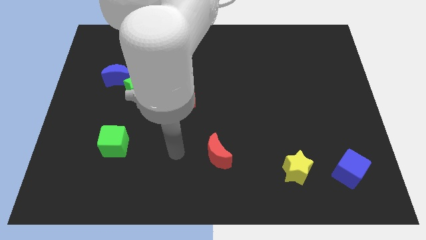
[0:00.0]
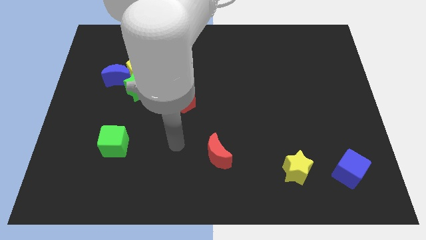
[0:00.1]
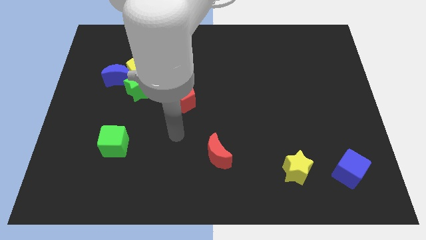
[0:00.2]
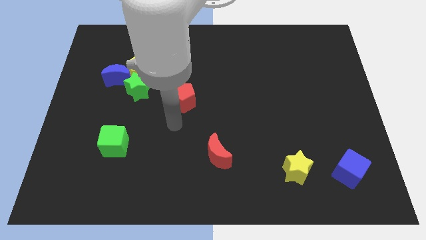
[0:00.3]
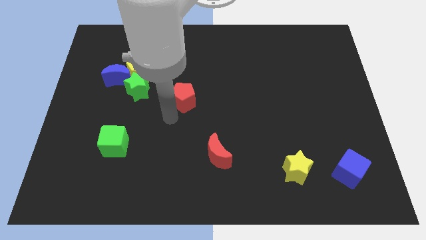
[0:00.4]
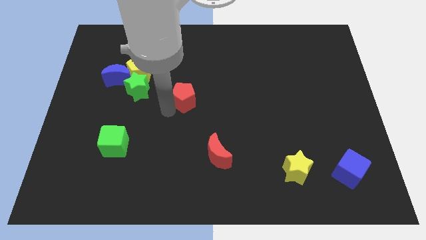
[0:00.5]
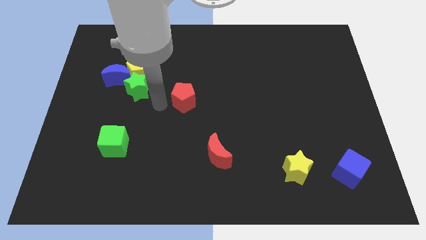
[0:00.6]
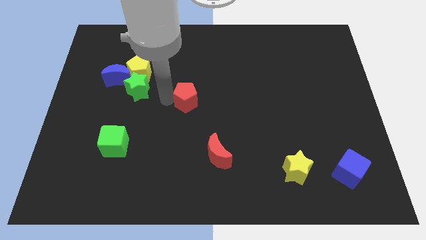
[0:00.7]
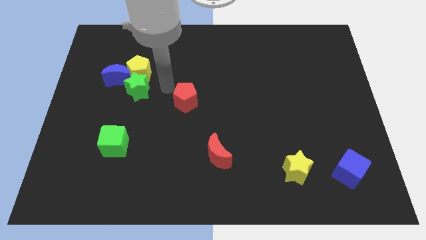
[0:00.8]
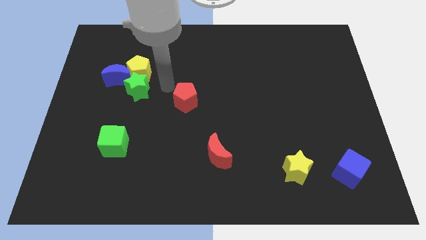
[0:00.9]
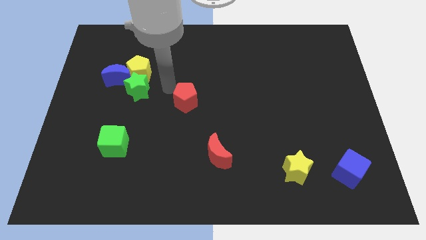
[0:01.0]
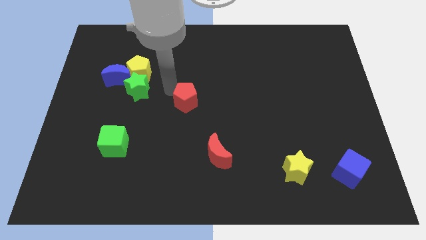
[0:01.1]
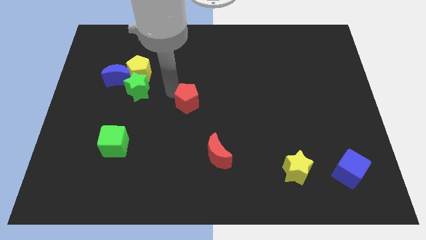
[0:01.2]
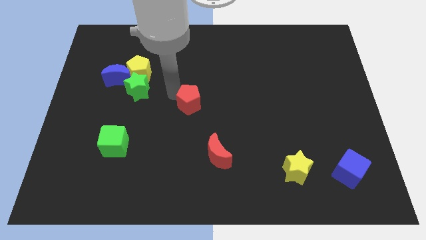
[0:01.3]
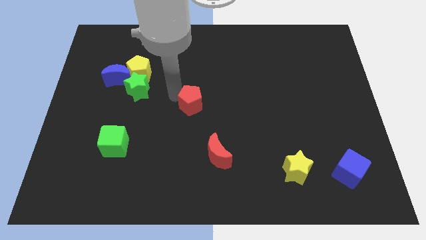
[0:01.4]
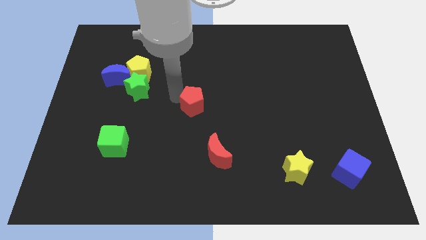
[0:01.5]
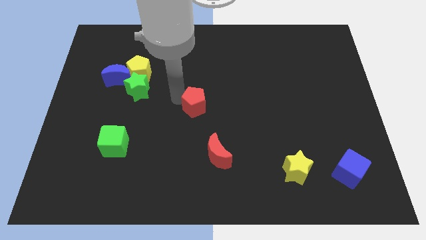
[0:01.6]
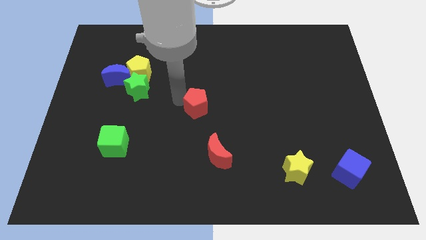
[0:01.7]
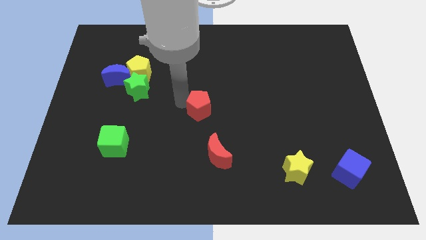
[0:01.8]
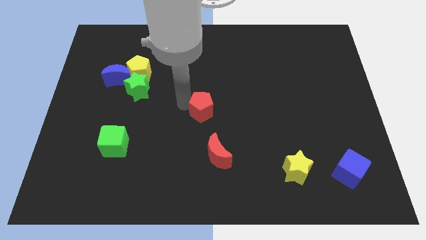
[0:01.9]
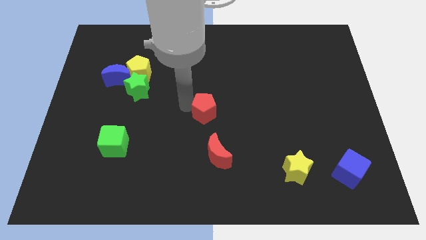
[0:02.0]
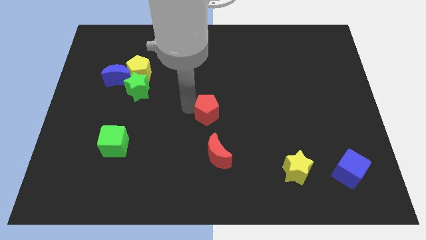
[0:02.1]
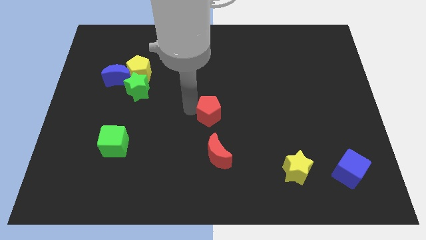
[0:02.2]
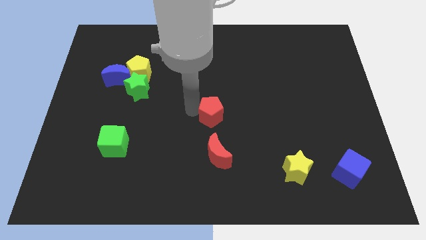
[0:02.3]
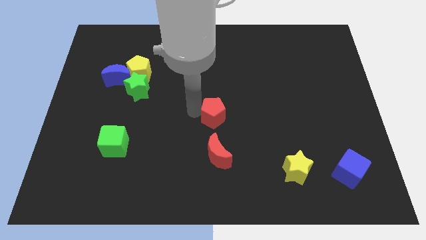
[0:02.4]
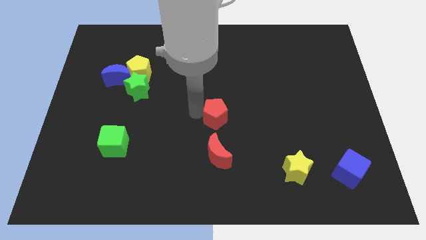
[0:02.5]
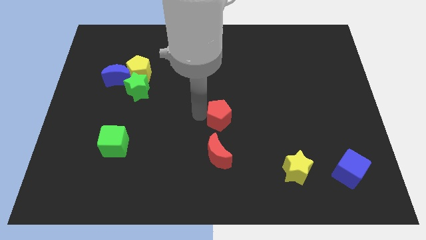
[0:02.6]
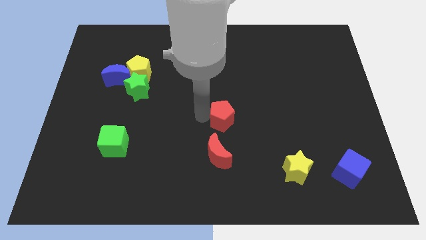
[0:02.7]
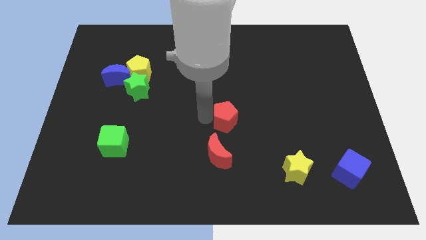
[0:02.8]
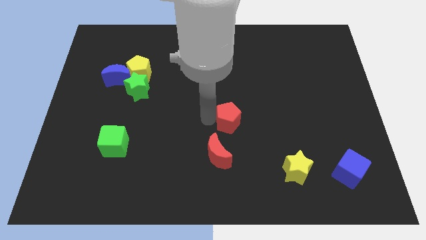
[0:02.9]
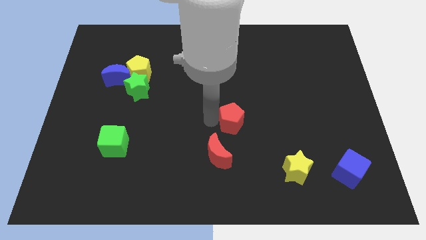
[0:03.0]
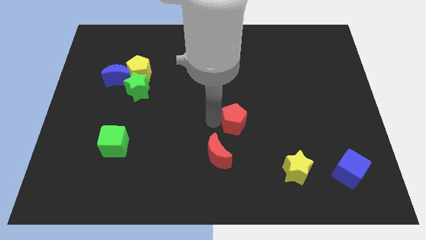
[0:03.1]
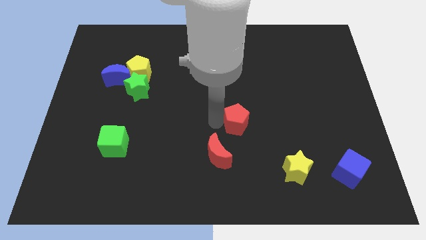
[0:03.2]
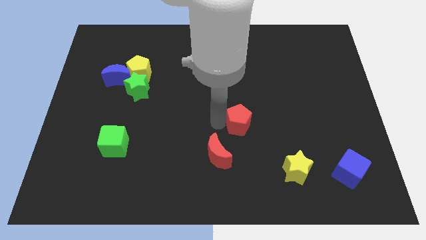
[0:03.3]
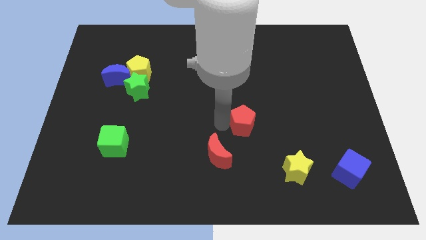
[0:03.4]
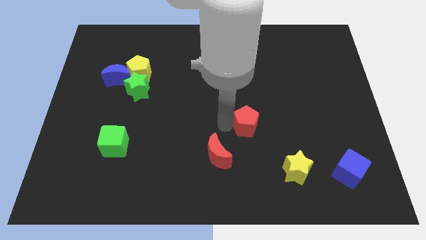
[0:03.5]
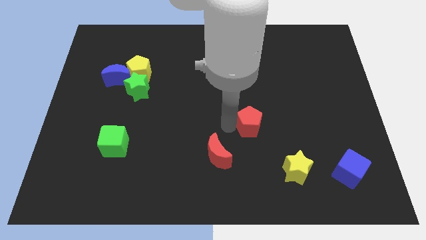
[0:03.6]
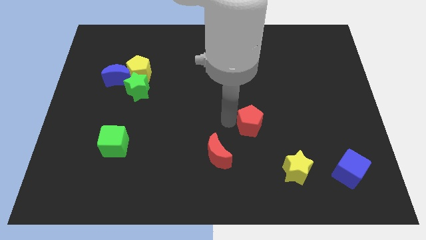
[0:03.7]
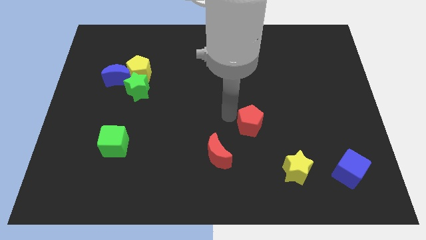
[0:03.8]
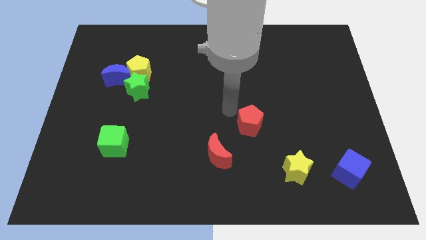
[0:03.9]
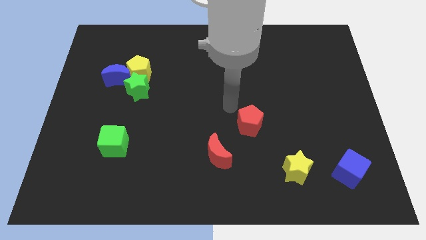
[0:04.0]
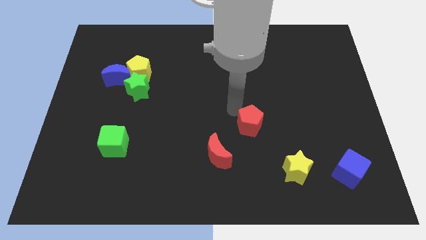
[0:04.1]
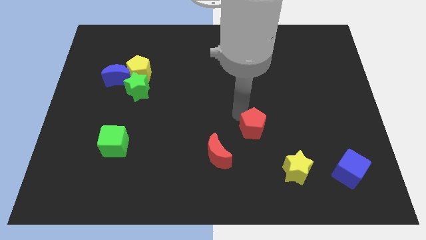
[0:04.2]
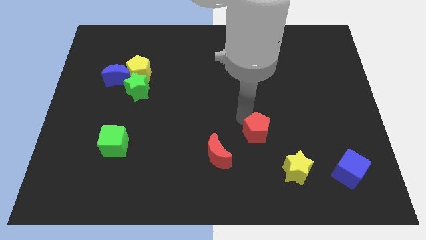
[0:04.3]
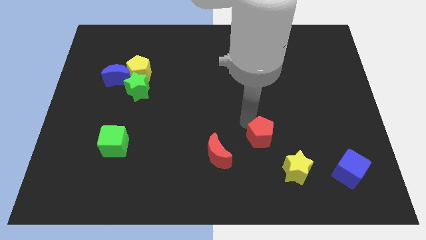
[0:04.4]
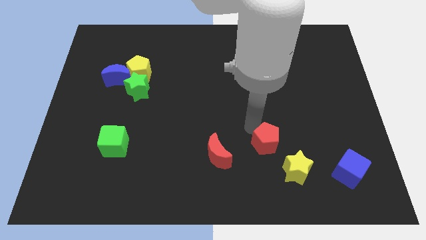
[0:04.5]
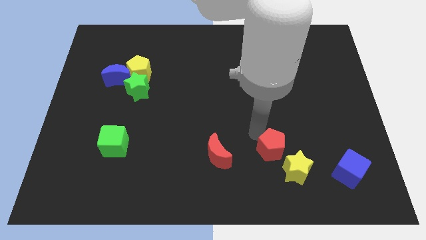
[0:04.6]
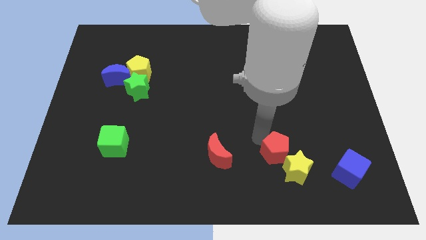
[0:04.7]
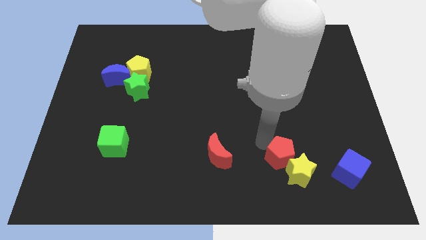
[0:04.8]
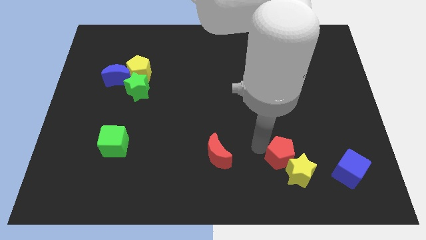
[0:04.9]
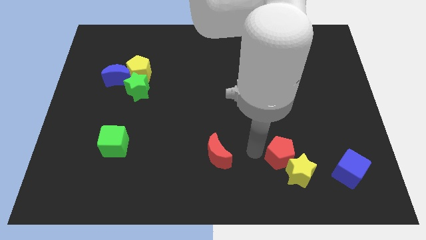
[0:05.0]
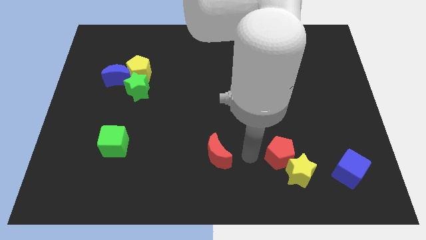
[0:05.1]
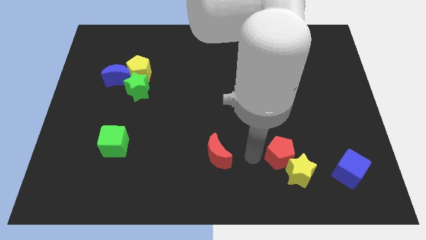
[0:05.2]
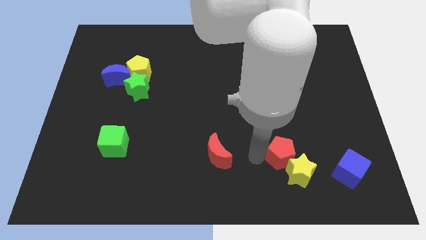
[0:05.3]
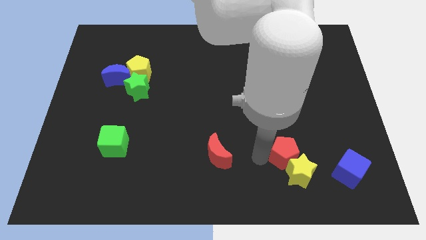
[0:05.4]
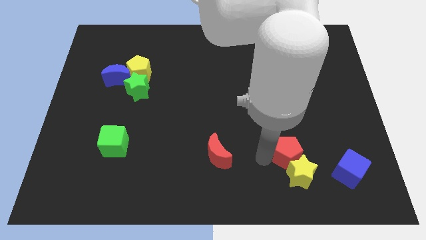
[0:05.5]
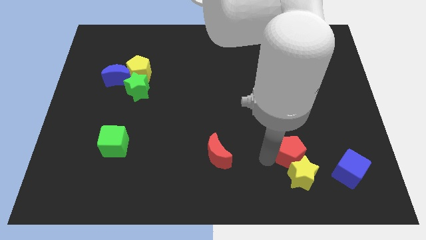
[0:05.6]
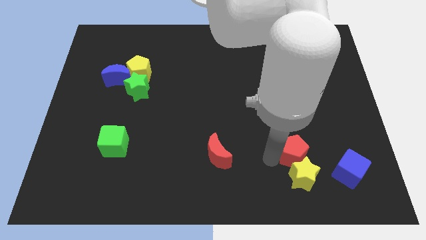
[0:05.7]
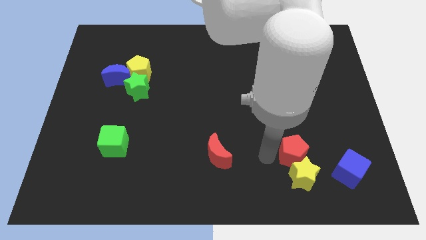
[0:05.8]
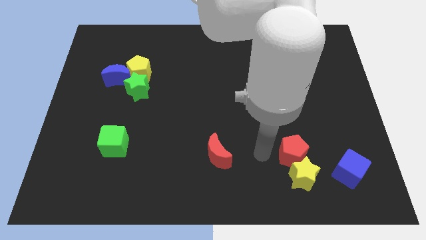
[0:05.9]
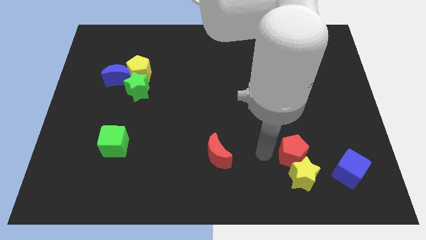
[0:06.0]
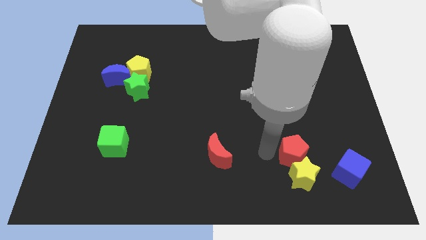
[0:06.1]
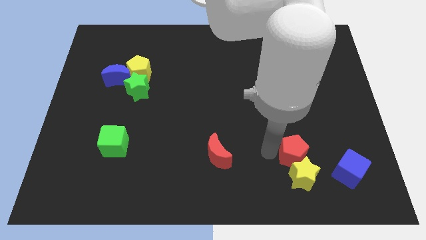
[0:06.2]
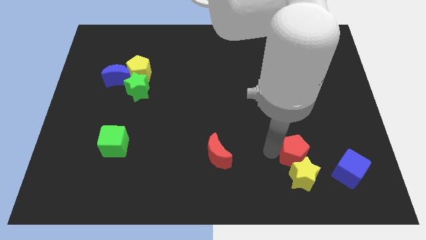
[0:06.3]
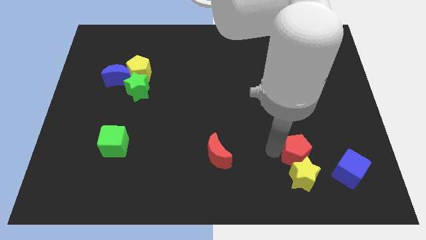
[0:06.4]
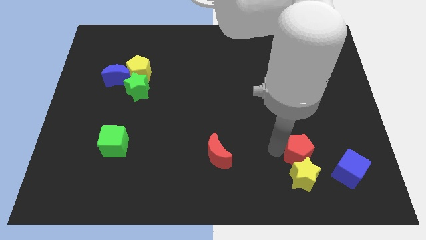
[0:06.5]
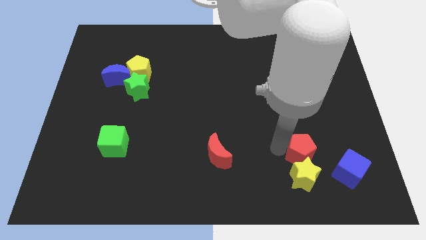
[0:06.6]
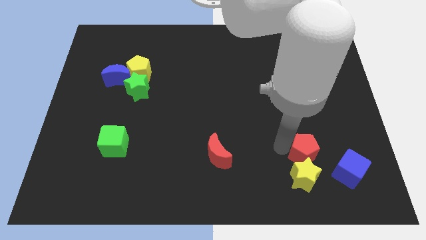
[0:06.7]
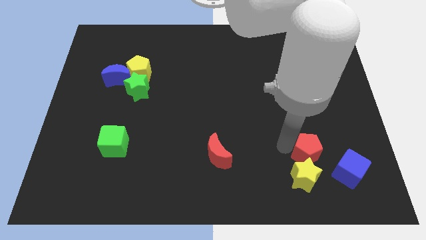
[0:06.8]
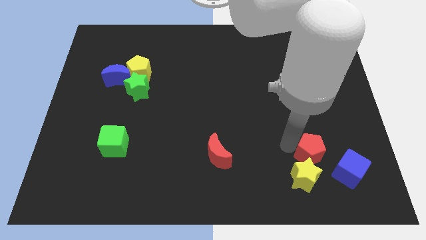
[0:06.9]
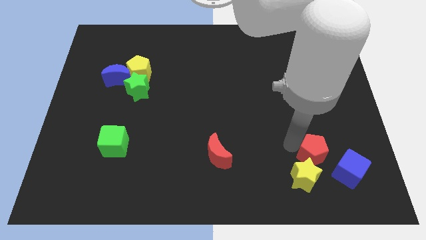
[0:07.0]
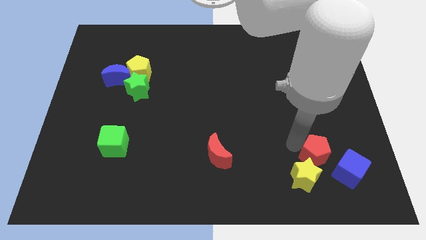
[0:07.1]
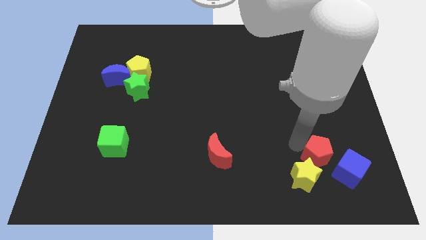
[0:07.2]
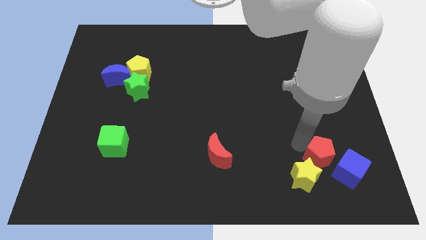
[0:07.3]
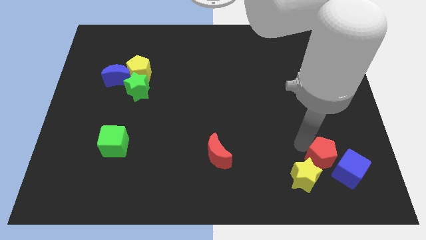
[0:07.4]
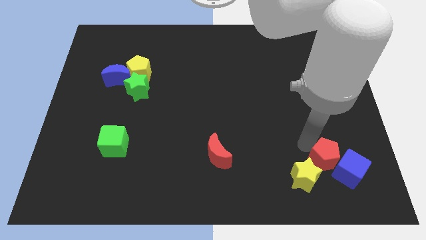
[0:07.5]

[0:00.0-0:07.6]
put the red pentagon to the blue cube
